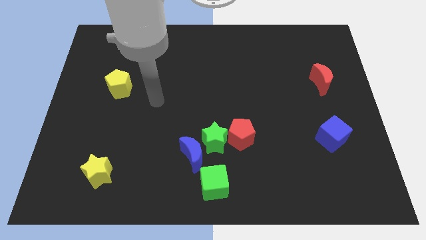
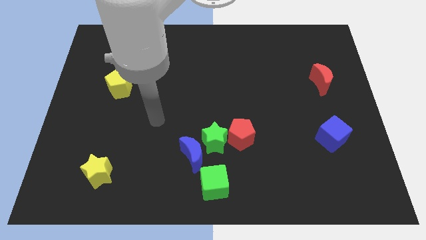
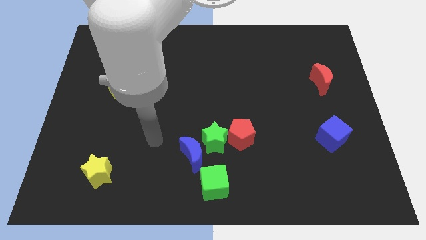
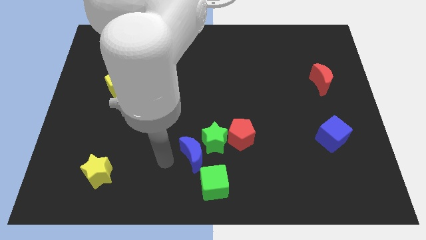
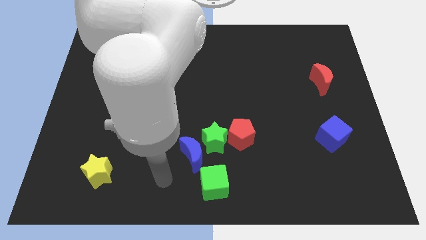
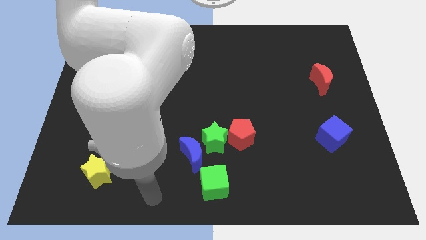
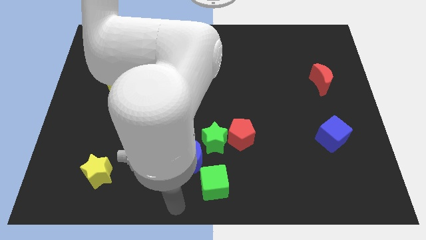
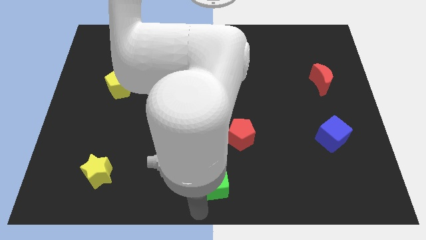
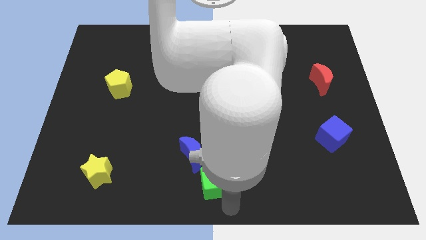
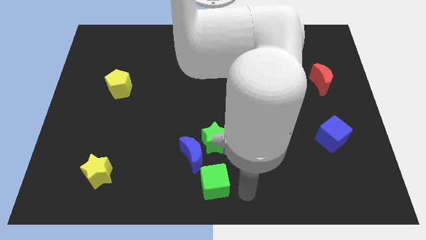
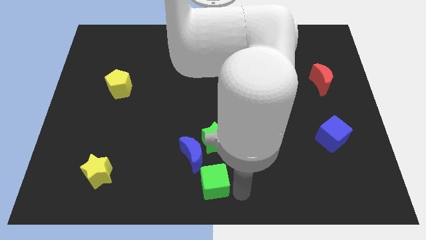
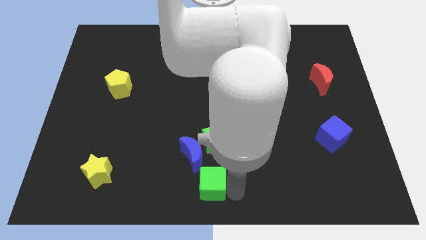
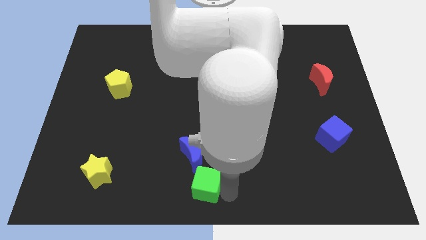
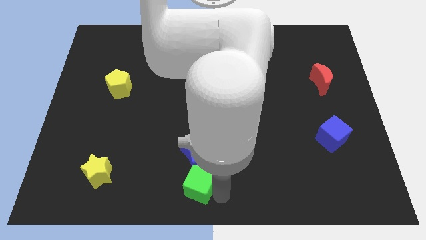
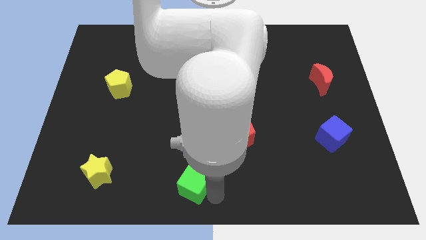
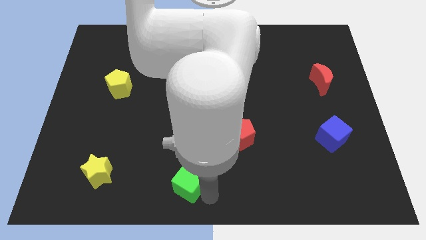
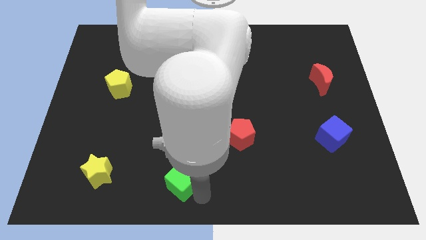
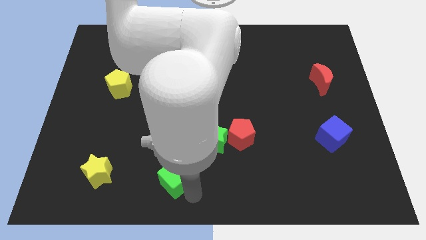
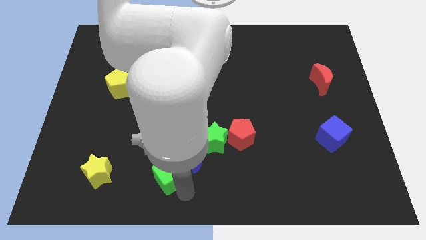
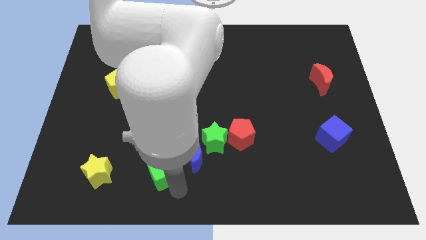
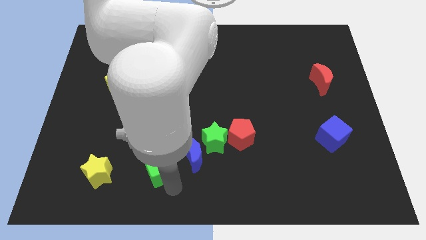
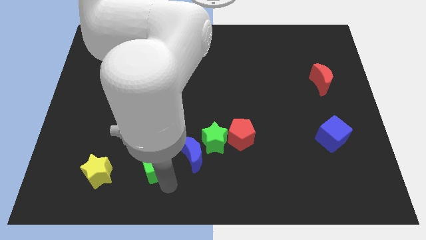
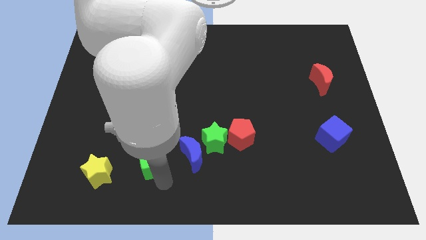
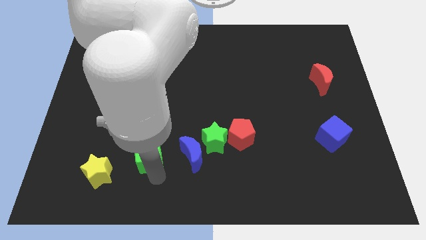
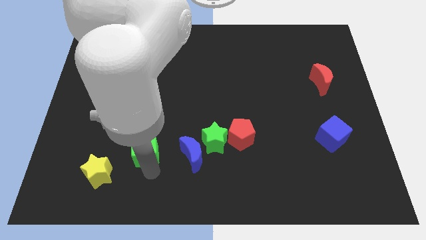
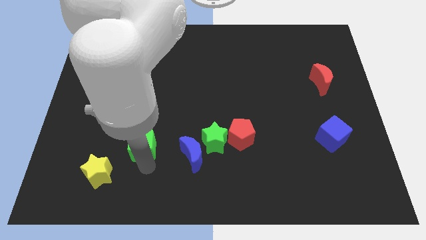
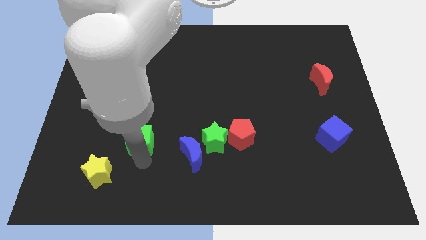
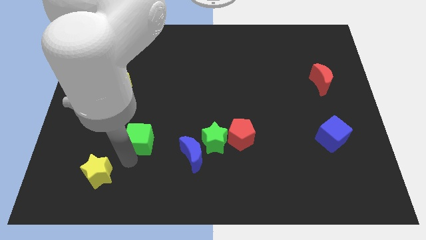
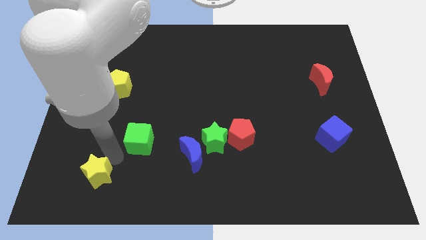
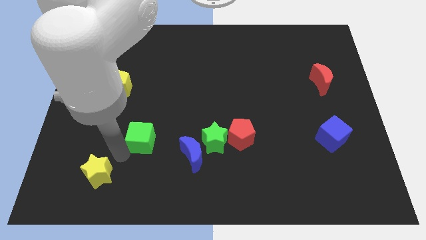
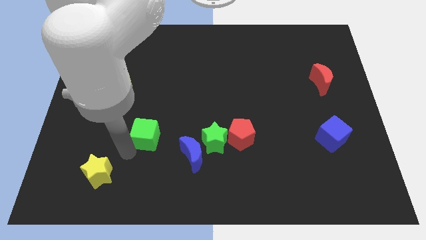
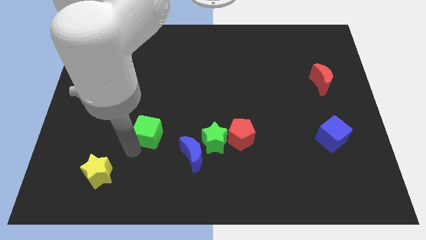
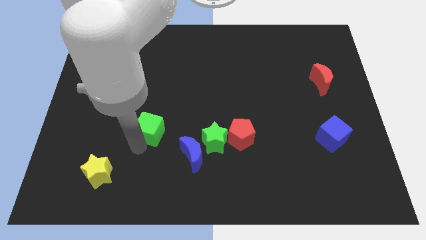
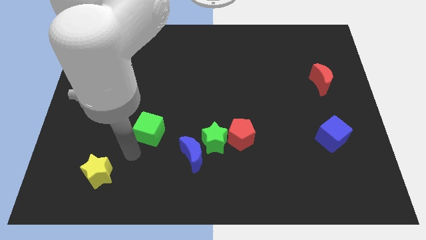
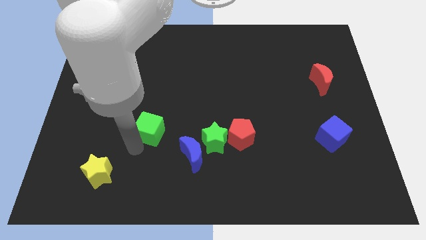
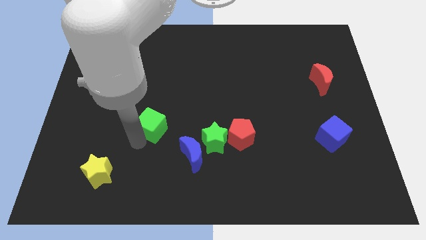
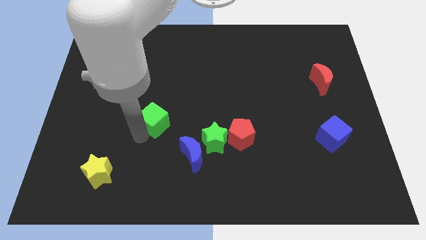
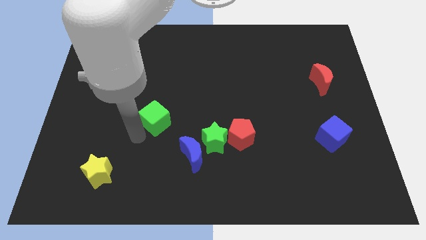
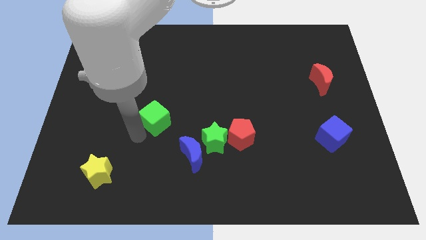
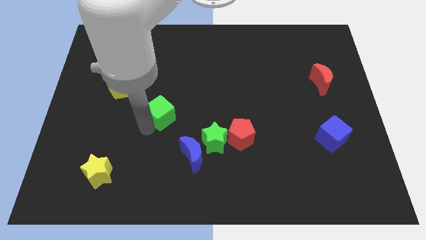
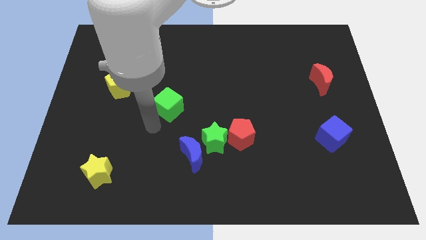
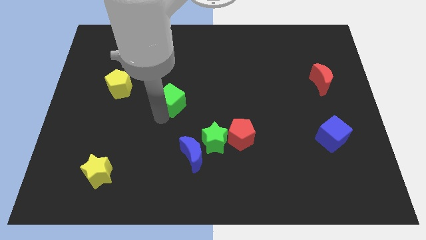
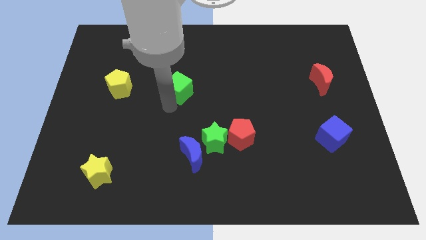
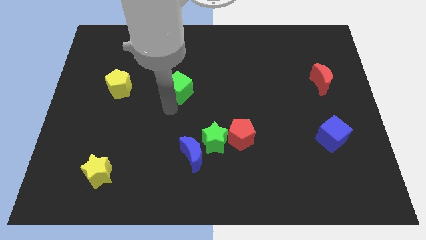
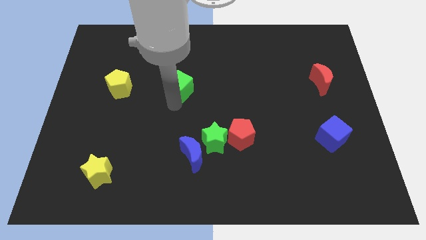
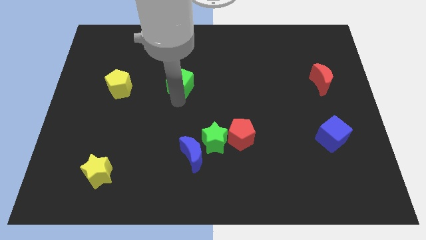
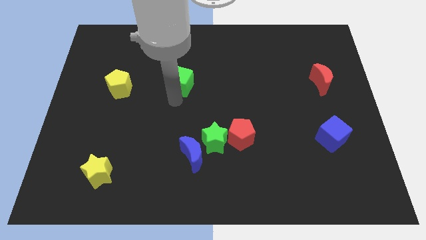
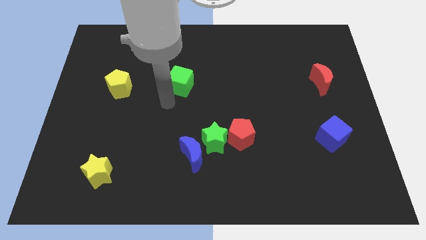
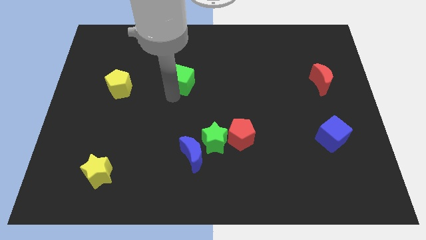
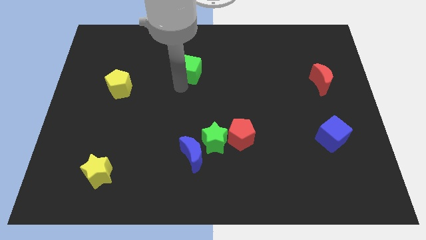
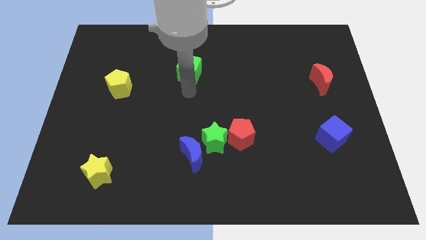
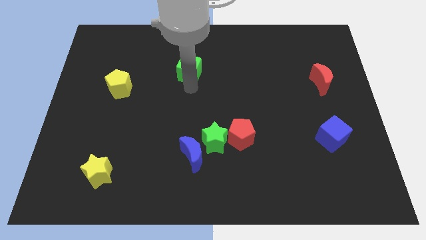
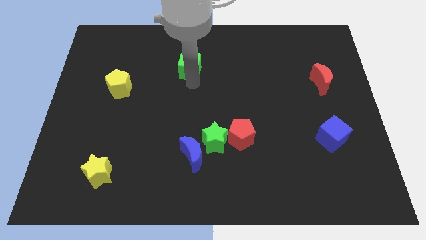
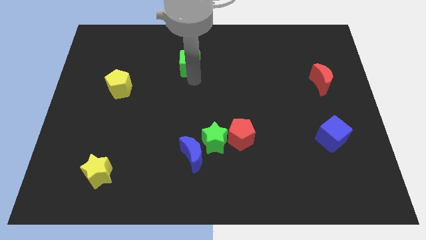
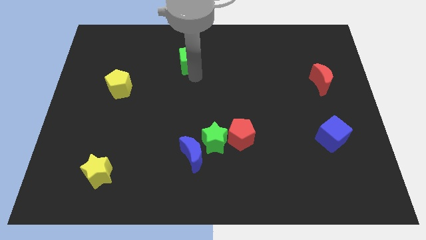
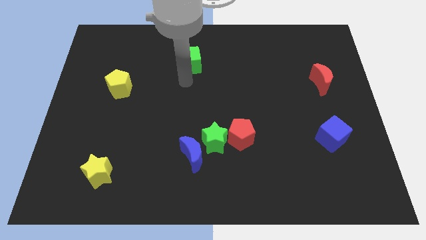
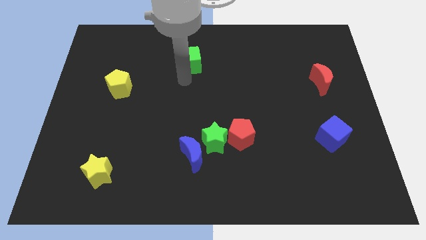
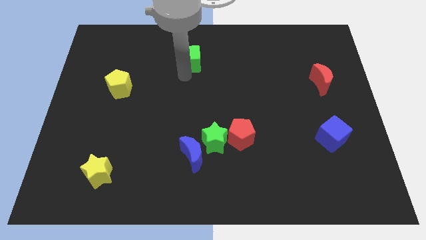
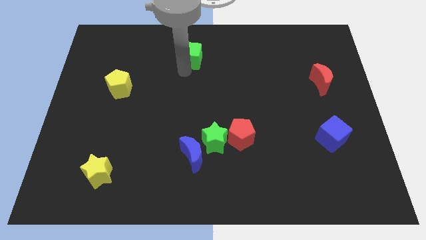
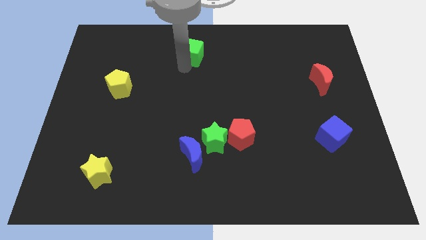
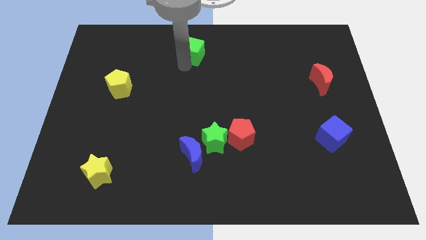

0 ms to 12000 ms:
move the green cube to the top

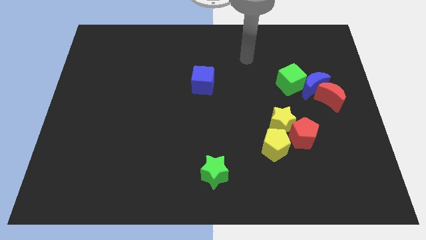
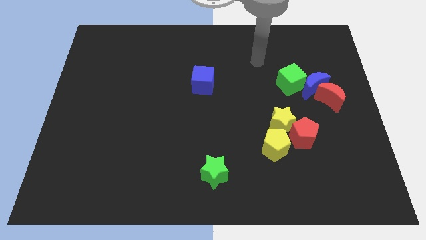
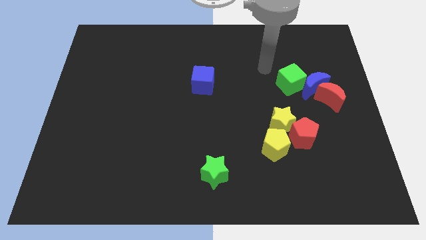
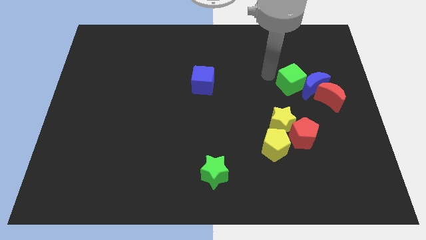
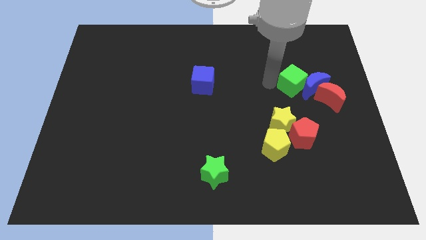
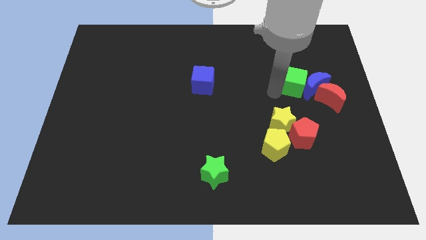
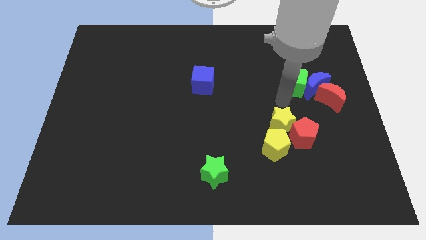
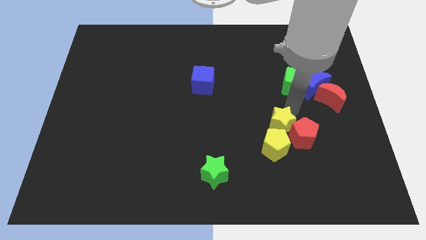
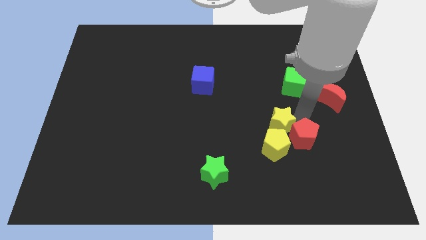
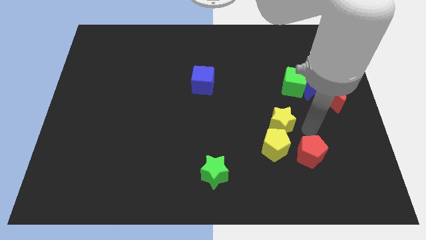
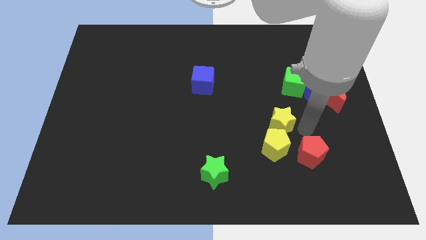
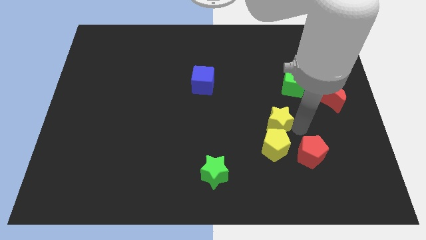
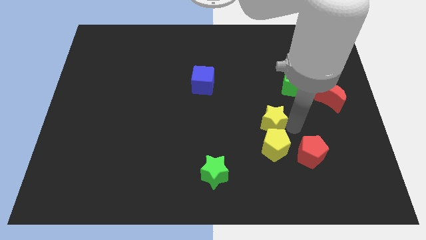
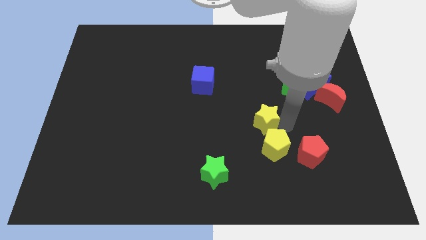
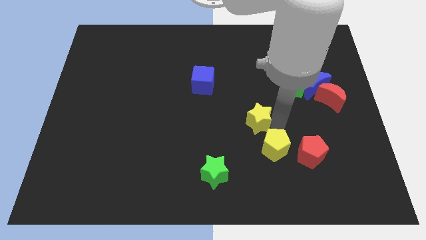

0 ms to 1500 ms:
push the yellow star to the middle of the board

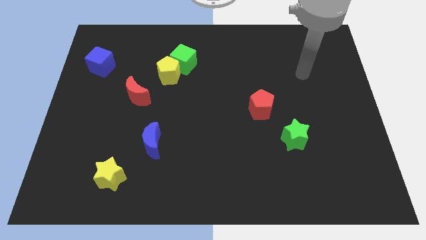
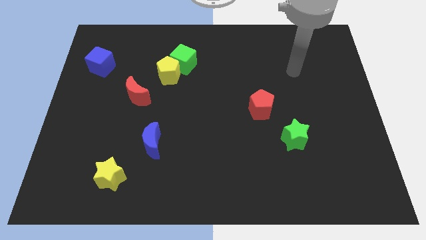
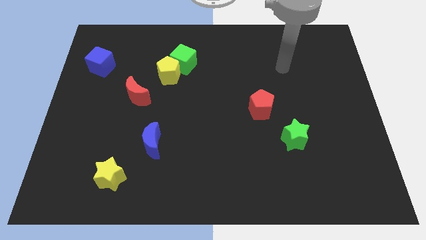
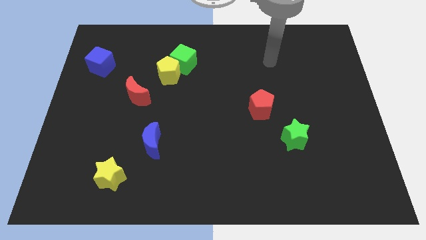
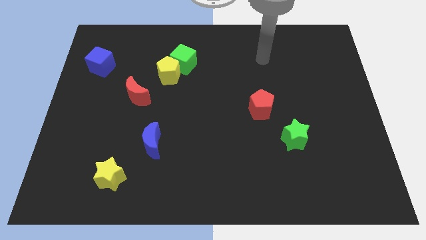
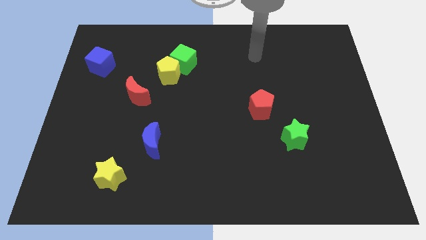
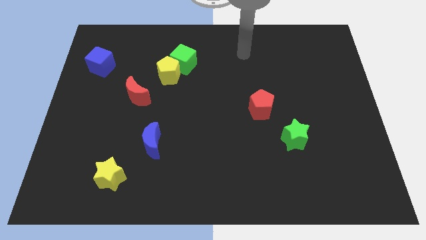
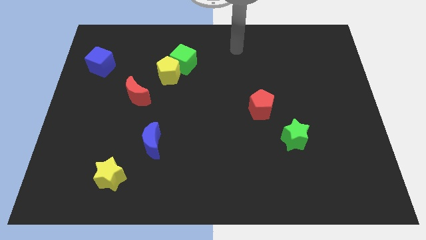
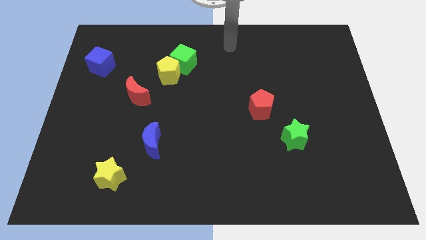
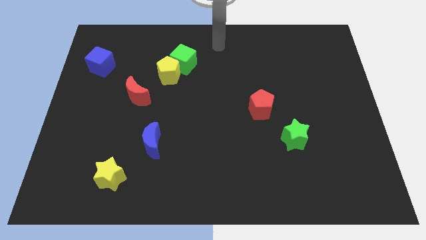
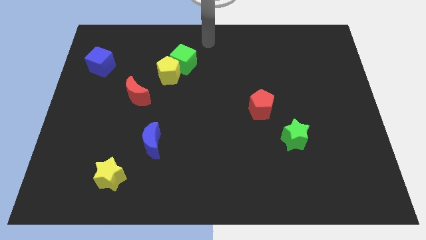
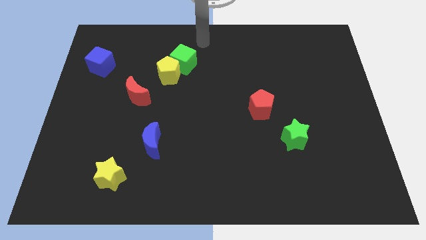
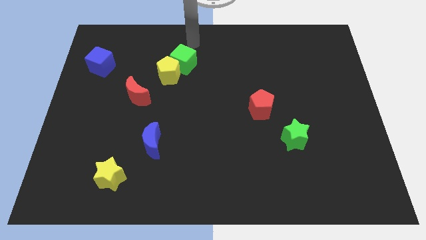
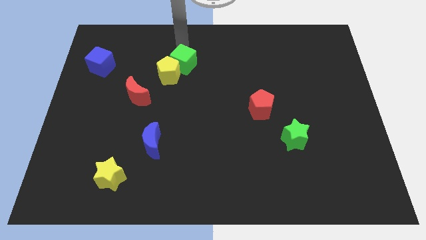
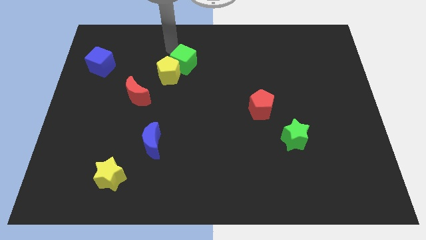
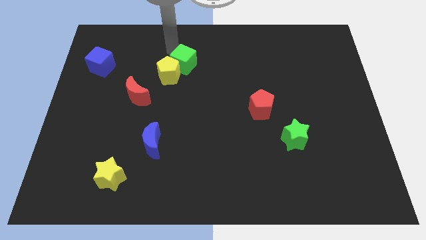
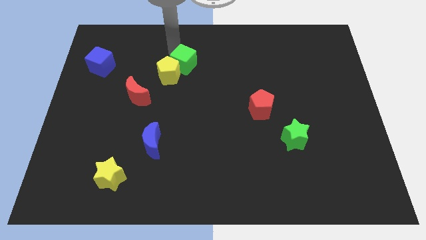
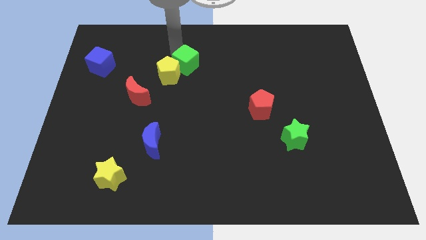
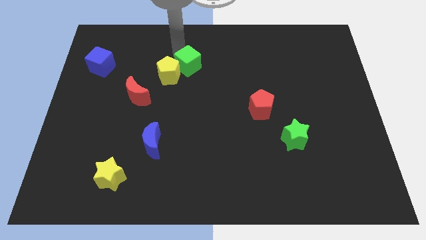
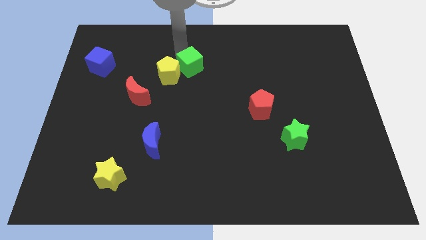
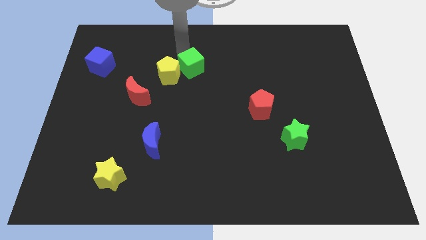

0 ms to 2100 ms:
push the green cube to the center of the board
